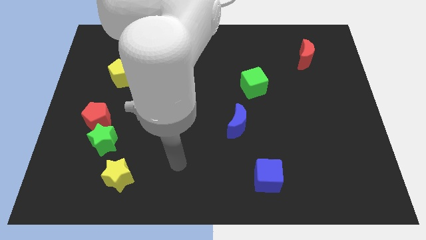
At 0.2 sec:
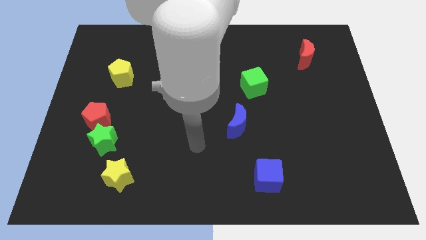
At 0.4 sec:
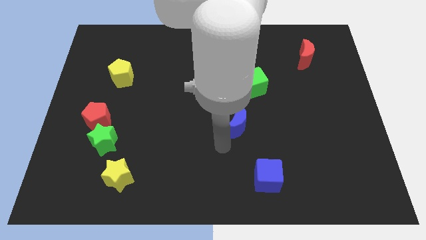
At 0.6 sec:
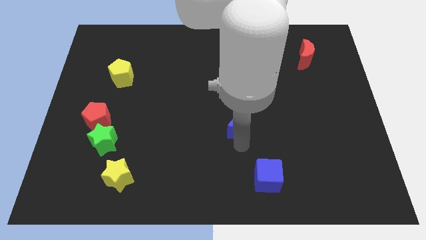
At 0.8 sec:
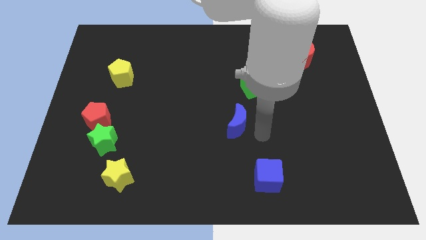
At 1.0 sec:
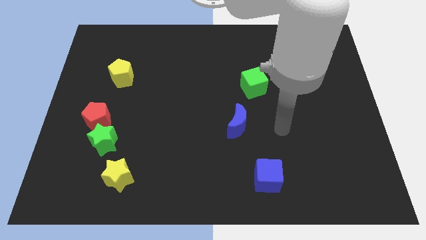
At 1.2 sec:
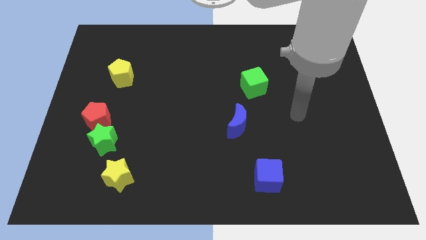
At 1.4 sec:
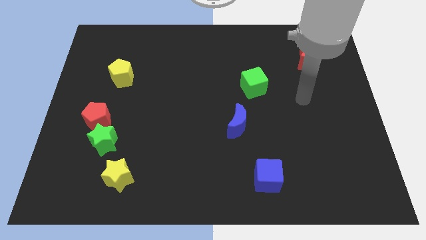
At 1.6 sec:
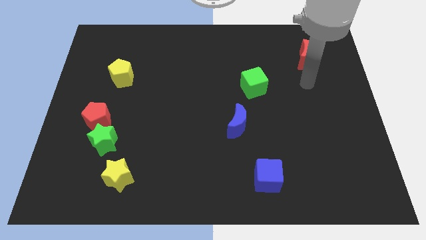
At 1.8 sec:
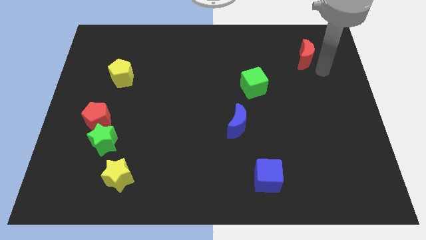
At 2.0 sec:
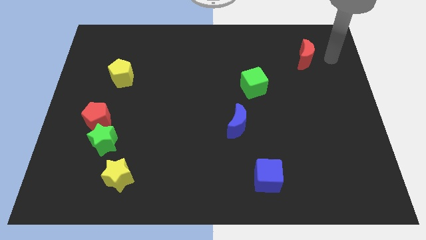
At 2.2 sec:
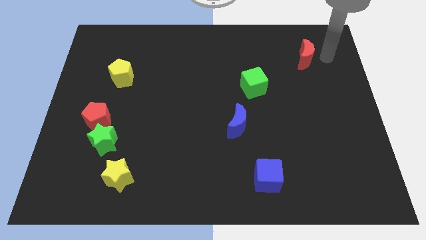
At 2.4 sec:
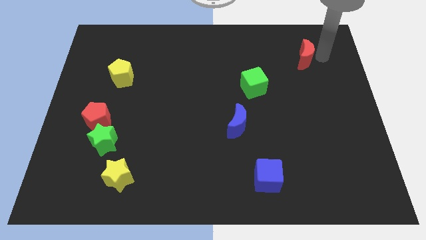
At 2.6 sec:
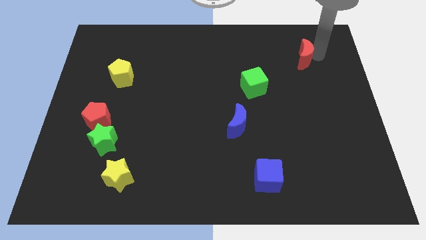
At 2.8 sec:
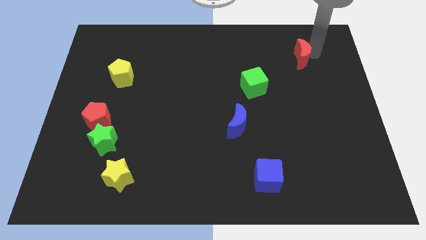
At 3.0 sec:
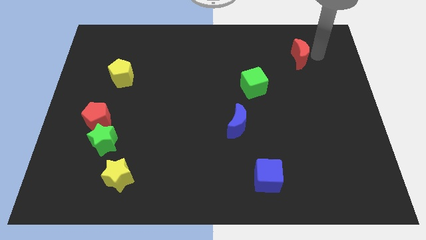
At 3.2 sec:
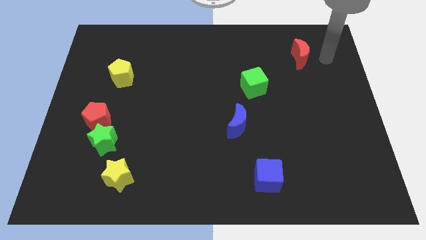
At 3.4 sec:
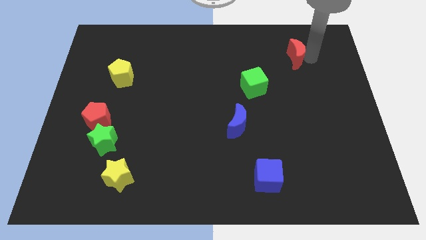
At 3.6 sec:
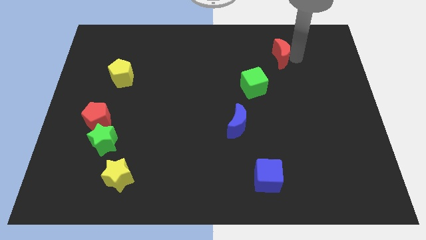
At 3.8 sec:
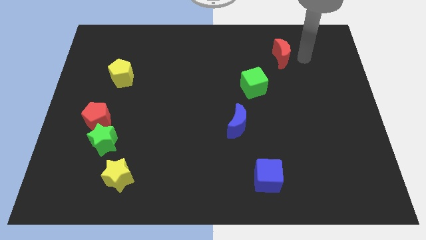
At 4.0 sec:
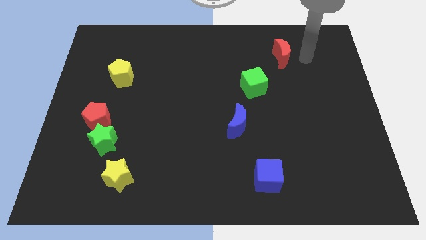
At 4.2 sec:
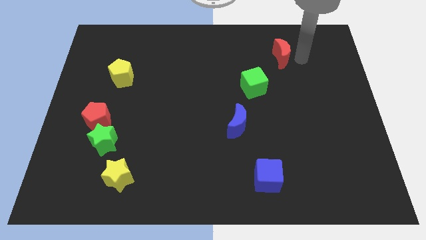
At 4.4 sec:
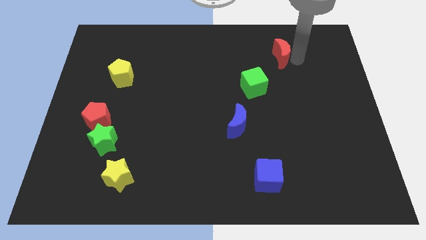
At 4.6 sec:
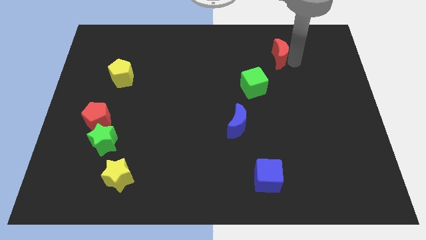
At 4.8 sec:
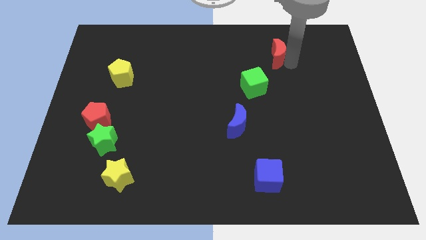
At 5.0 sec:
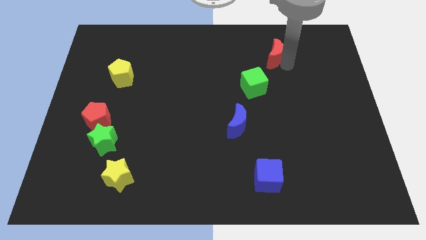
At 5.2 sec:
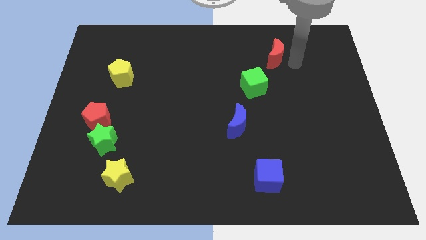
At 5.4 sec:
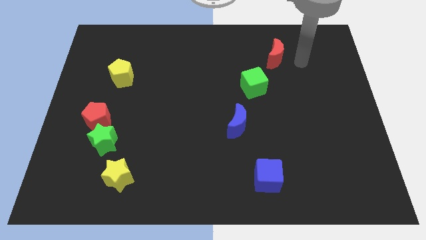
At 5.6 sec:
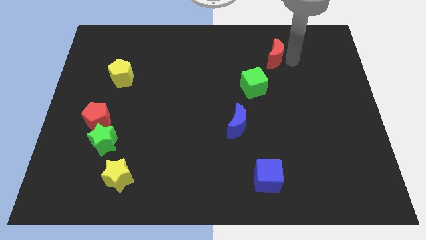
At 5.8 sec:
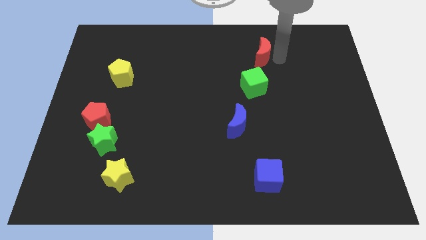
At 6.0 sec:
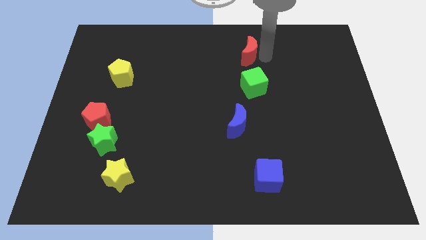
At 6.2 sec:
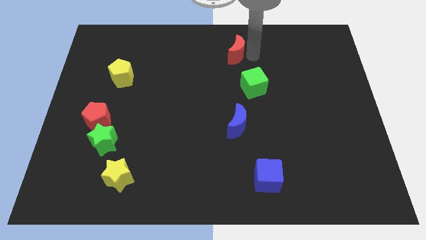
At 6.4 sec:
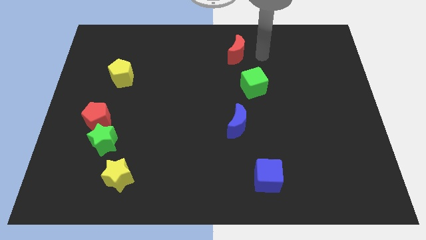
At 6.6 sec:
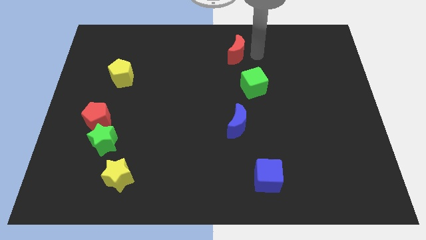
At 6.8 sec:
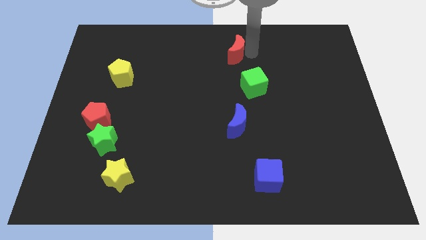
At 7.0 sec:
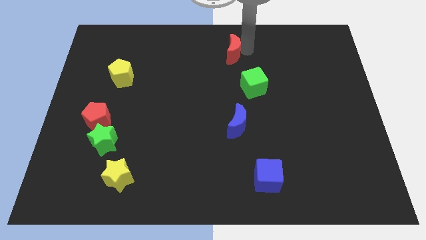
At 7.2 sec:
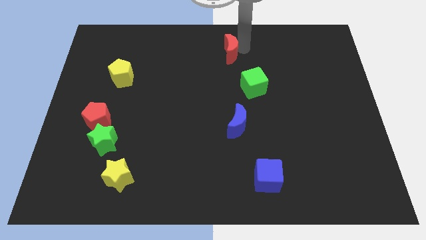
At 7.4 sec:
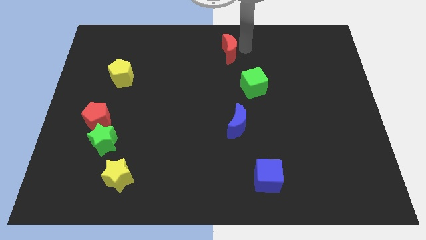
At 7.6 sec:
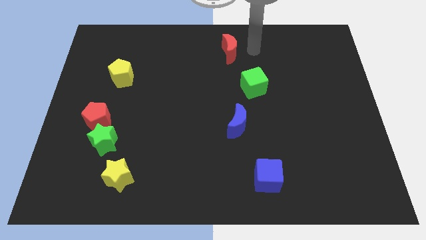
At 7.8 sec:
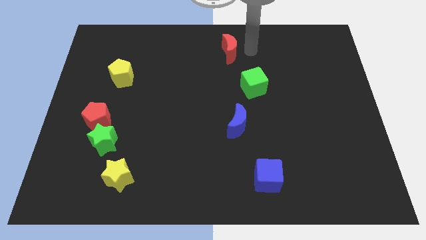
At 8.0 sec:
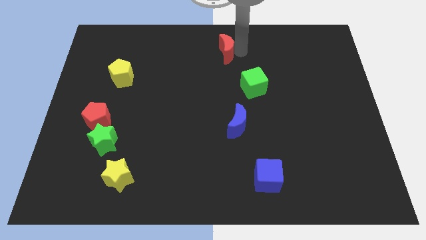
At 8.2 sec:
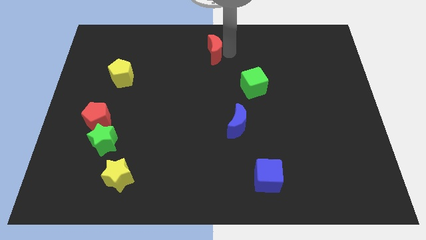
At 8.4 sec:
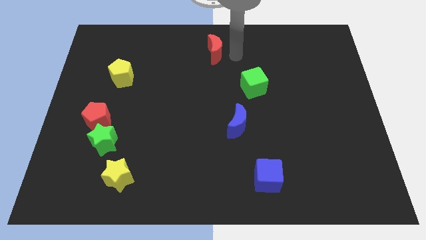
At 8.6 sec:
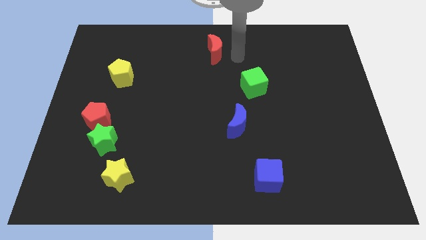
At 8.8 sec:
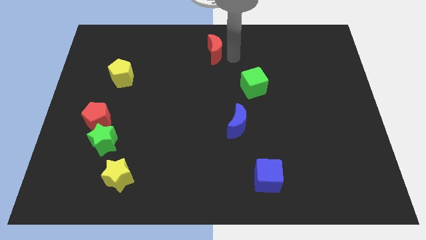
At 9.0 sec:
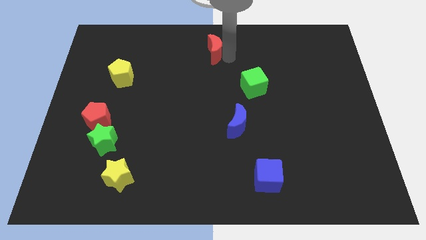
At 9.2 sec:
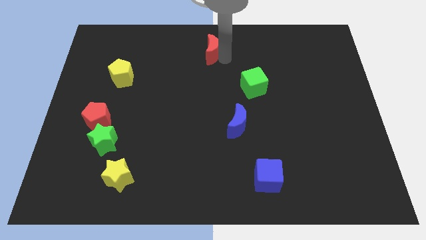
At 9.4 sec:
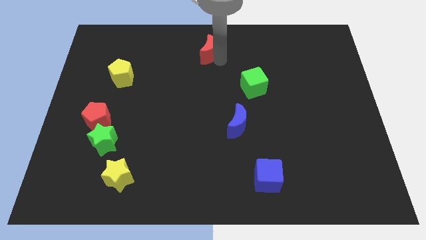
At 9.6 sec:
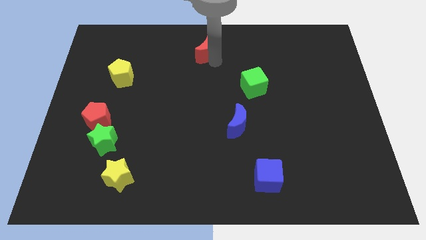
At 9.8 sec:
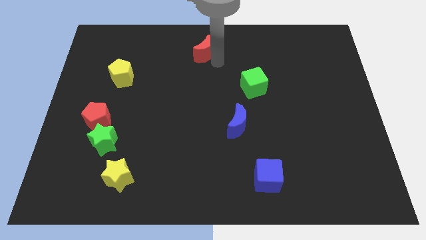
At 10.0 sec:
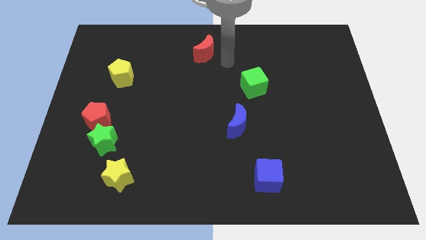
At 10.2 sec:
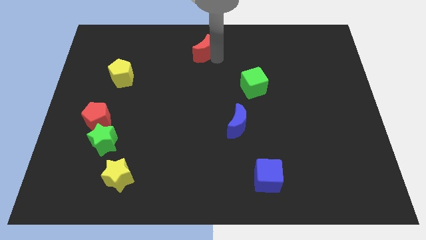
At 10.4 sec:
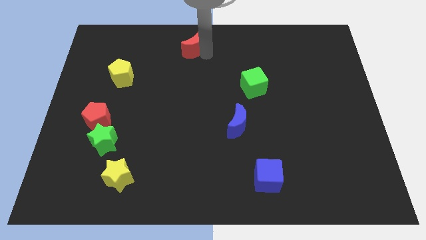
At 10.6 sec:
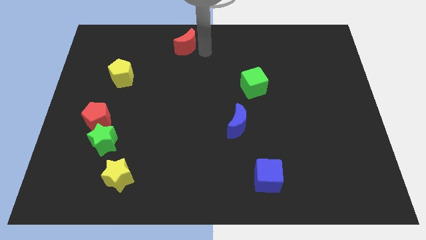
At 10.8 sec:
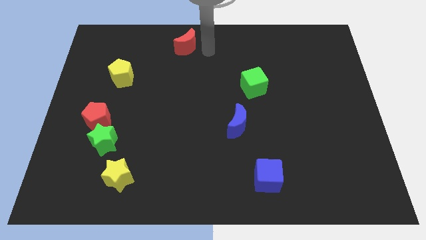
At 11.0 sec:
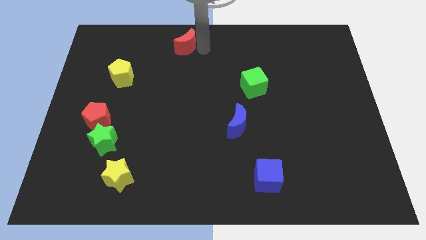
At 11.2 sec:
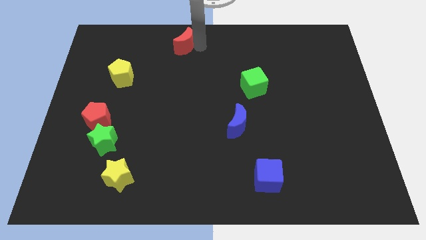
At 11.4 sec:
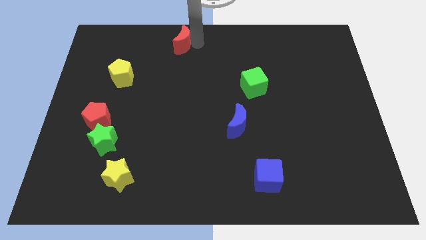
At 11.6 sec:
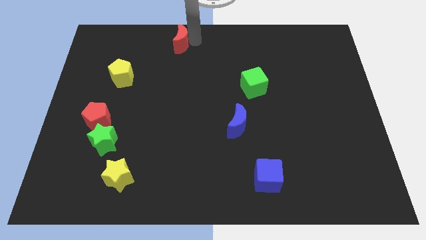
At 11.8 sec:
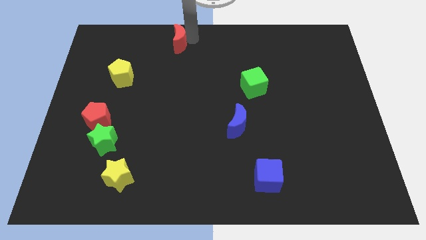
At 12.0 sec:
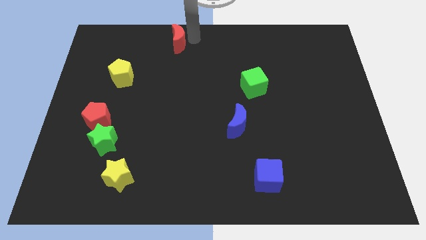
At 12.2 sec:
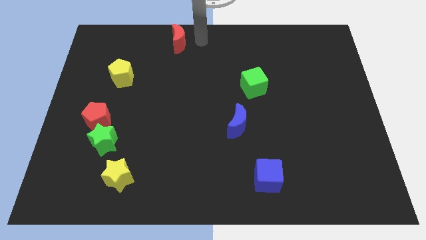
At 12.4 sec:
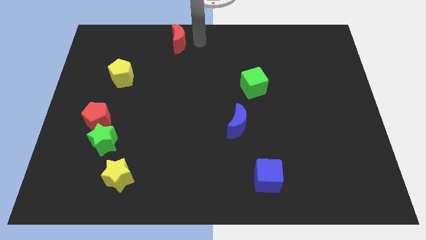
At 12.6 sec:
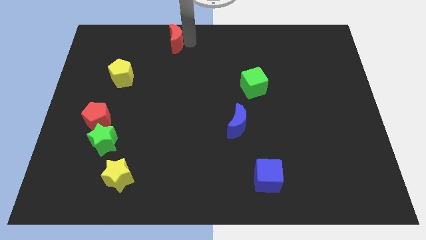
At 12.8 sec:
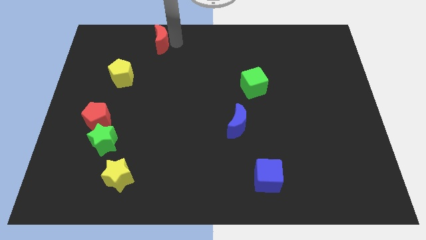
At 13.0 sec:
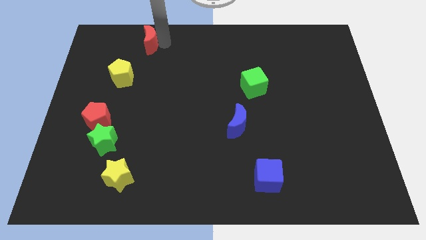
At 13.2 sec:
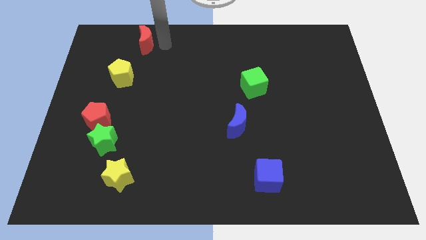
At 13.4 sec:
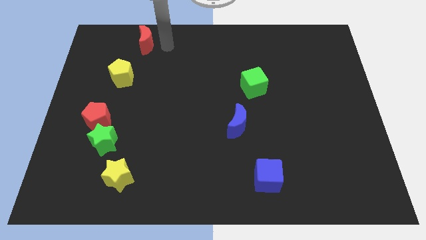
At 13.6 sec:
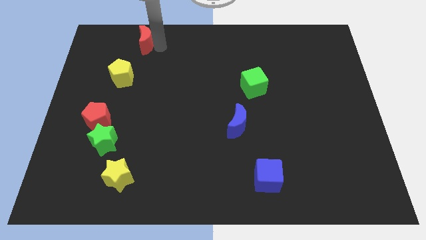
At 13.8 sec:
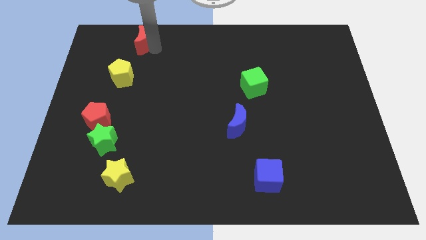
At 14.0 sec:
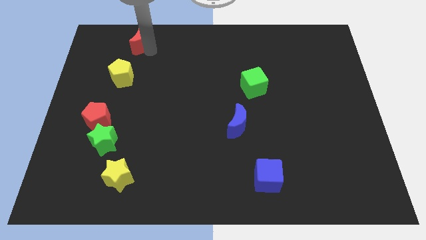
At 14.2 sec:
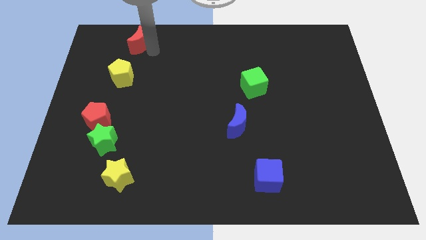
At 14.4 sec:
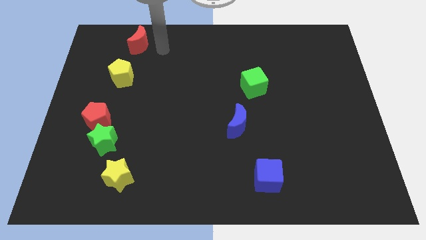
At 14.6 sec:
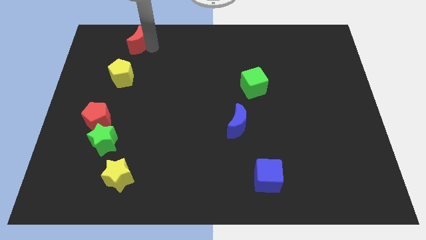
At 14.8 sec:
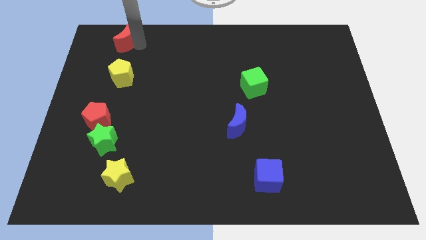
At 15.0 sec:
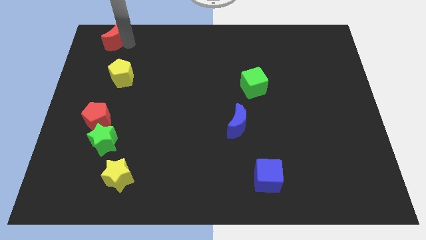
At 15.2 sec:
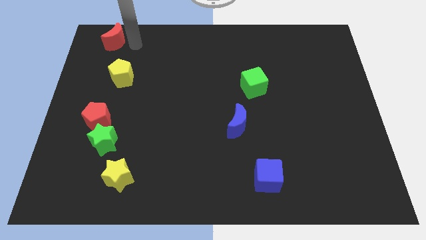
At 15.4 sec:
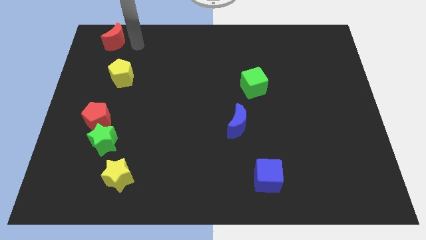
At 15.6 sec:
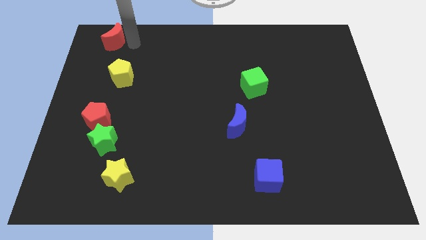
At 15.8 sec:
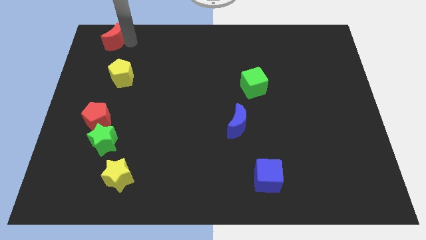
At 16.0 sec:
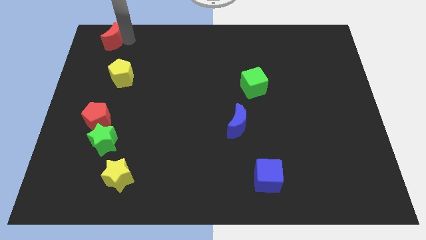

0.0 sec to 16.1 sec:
push the red moon to the upper left corner
